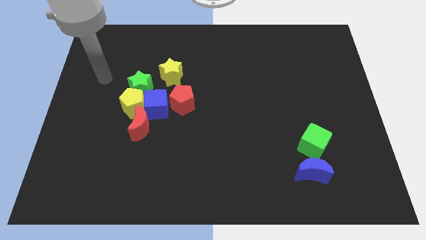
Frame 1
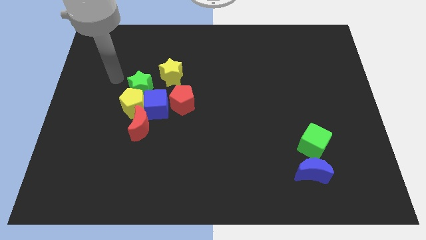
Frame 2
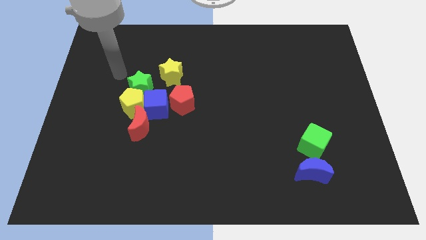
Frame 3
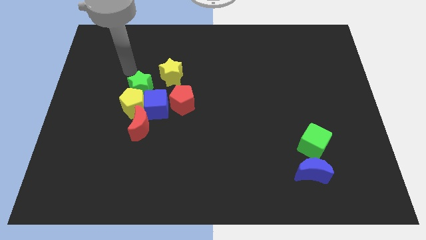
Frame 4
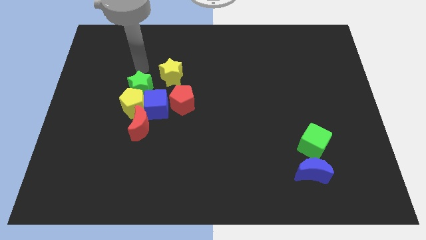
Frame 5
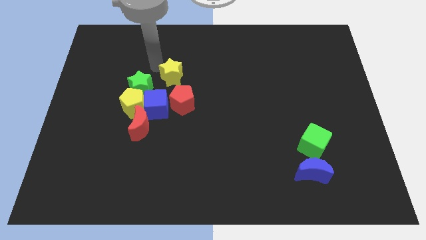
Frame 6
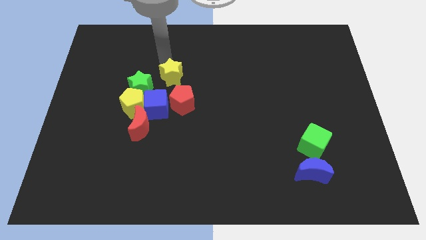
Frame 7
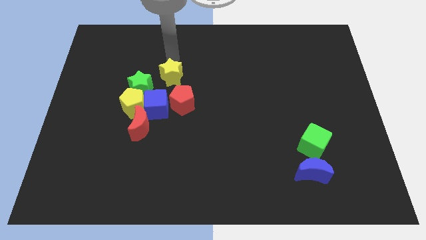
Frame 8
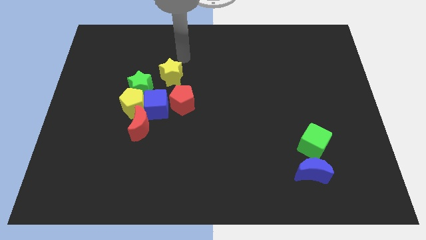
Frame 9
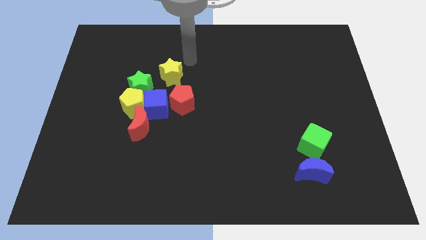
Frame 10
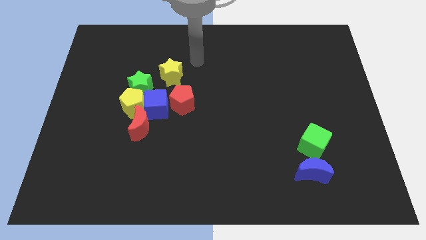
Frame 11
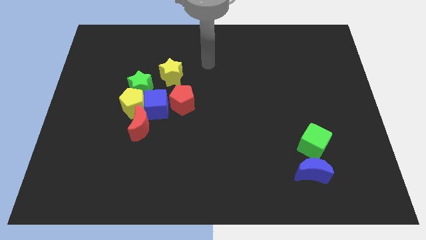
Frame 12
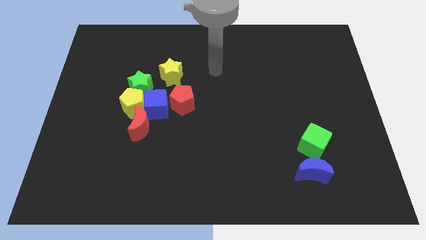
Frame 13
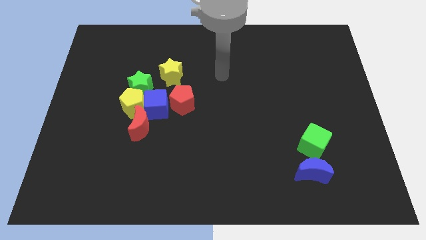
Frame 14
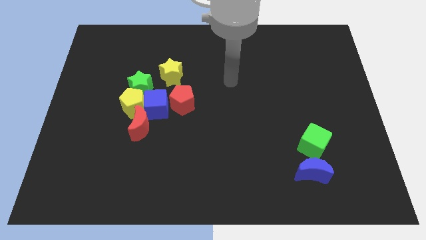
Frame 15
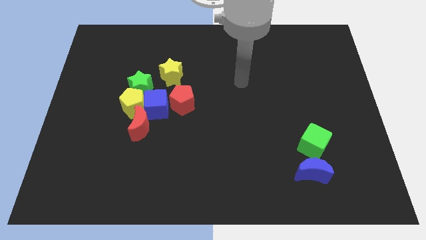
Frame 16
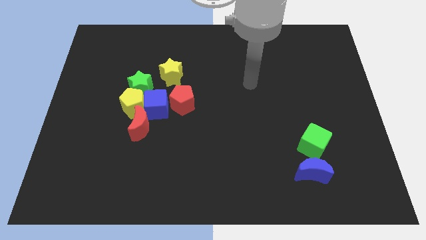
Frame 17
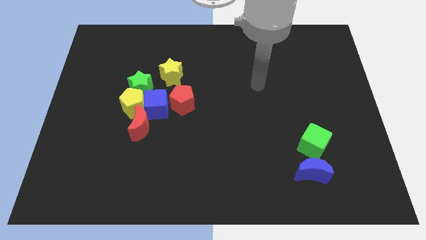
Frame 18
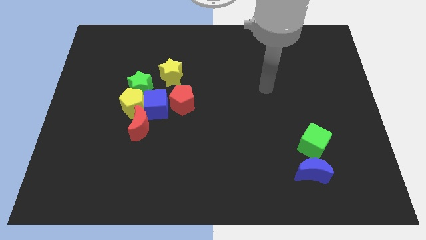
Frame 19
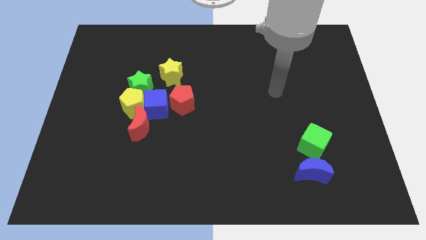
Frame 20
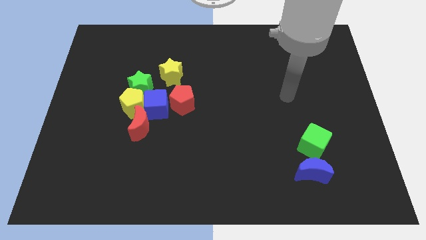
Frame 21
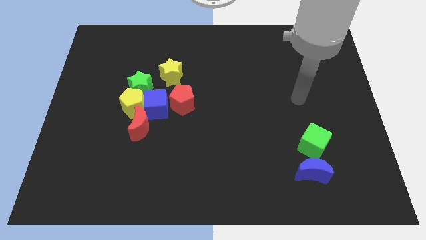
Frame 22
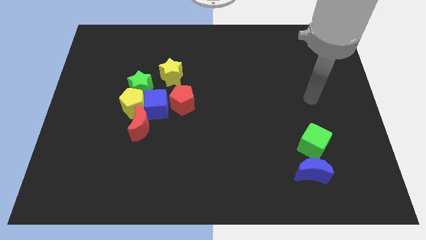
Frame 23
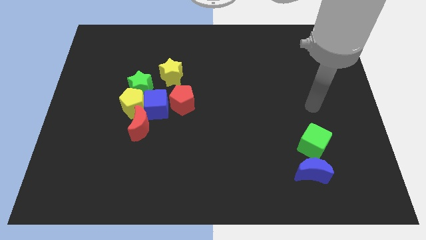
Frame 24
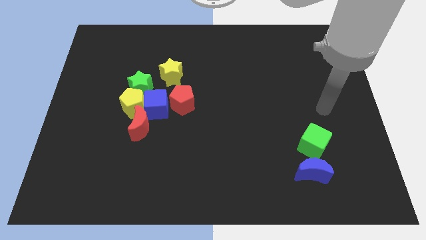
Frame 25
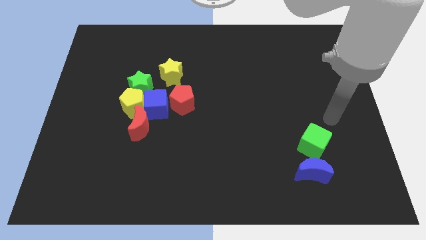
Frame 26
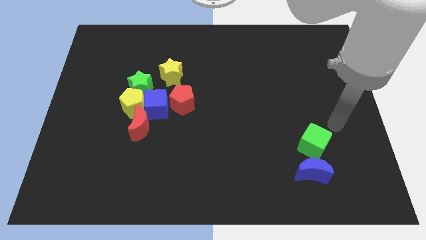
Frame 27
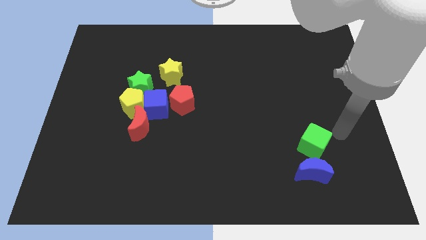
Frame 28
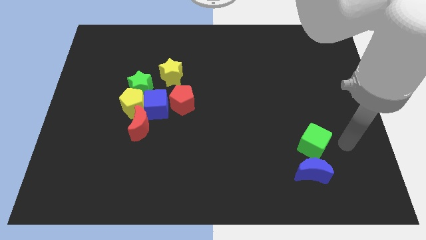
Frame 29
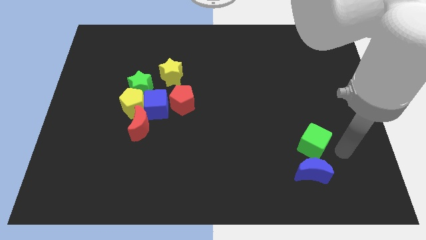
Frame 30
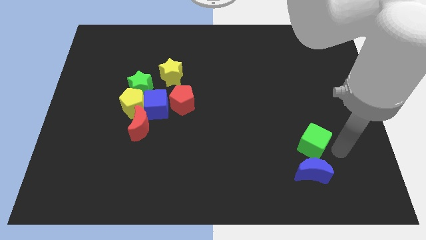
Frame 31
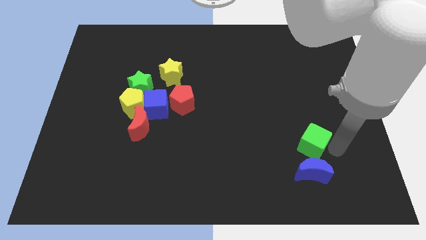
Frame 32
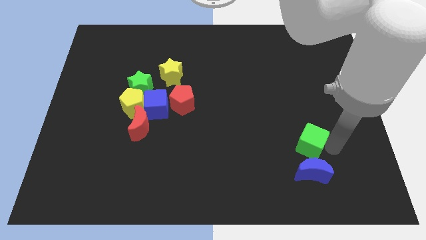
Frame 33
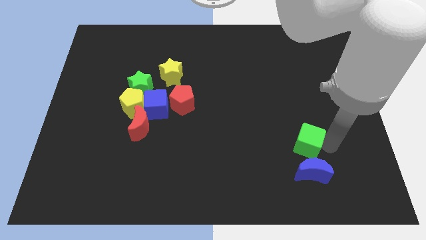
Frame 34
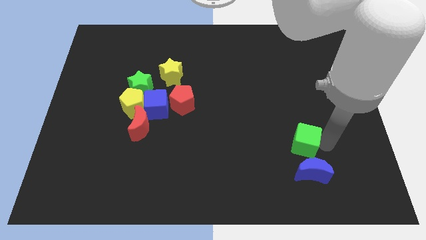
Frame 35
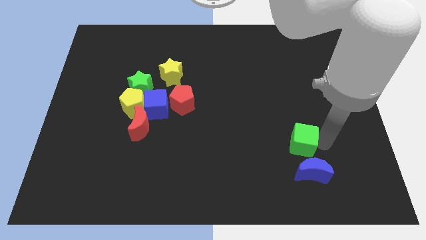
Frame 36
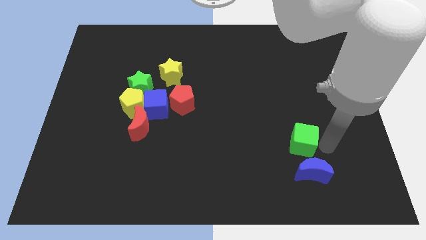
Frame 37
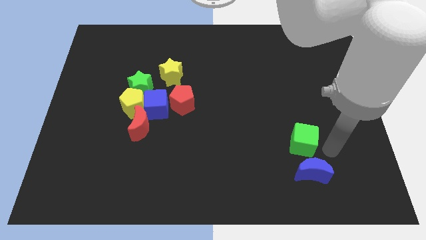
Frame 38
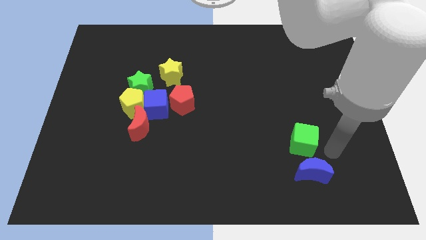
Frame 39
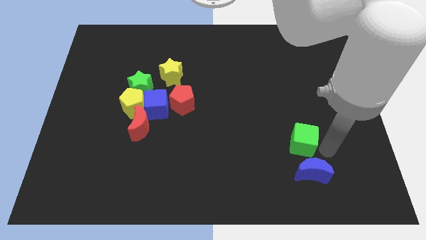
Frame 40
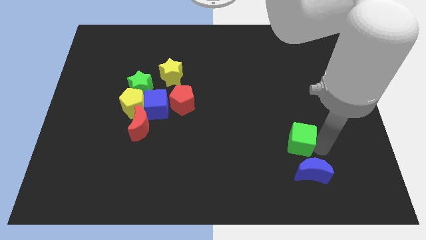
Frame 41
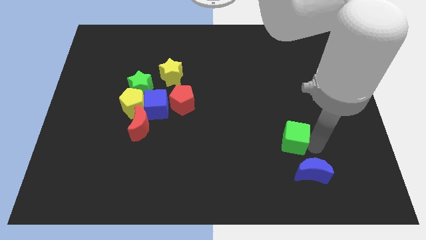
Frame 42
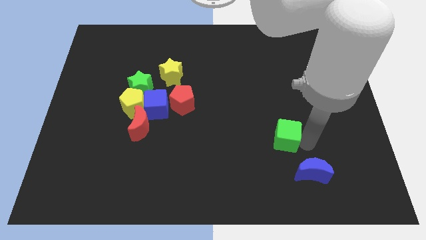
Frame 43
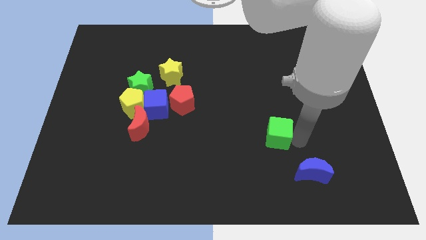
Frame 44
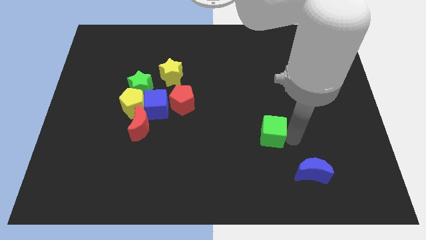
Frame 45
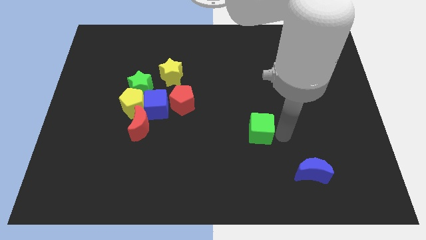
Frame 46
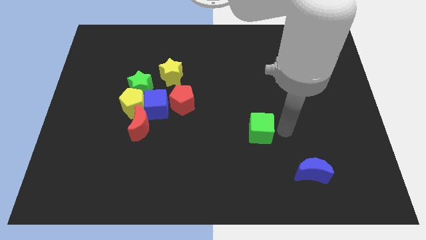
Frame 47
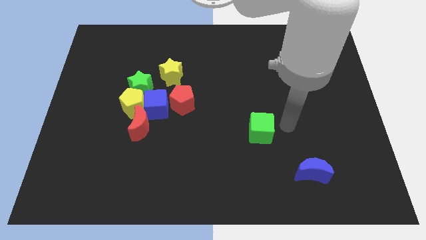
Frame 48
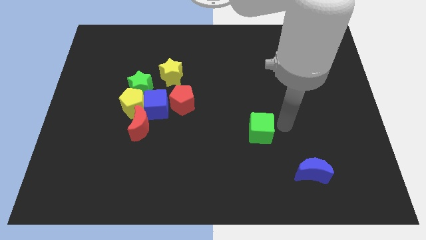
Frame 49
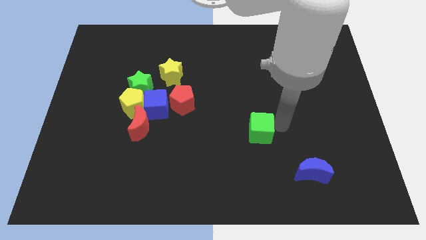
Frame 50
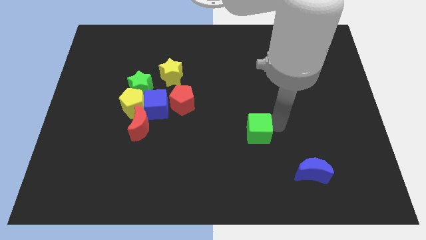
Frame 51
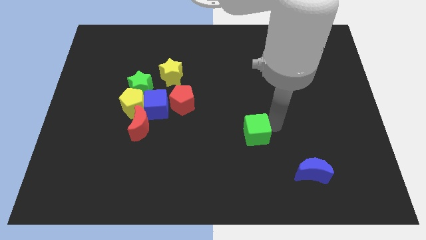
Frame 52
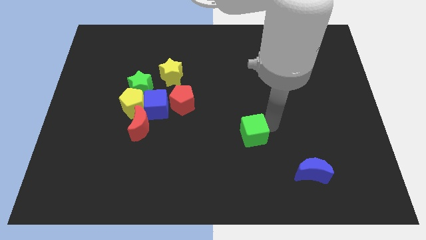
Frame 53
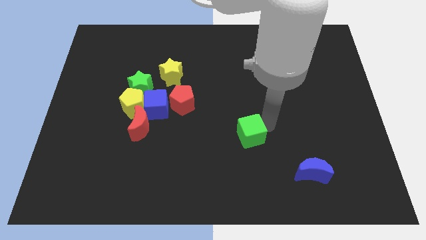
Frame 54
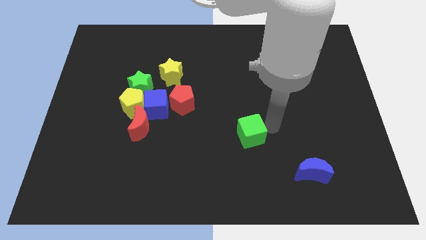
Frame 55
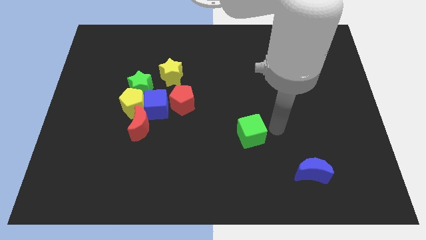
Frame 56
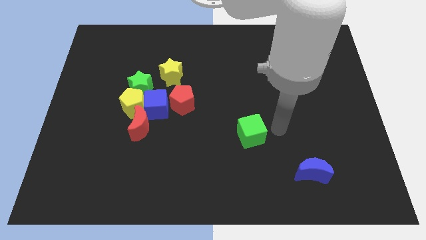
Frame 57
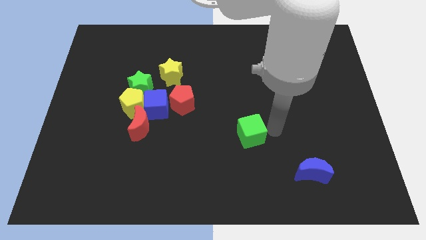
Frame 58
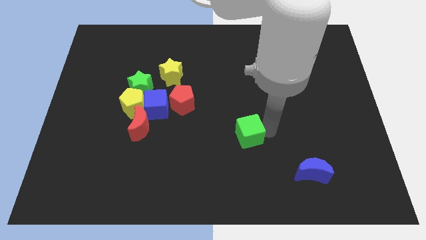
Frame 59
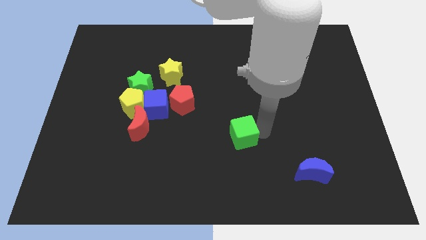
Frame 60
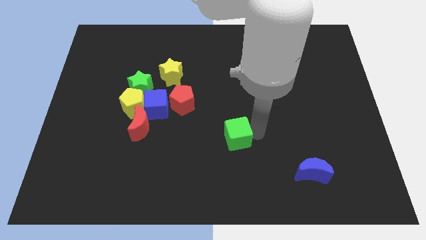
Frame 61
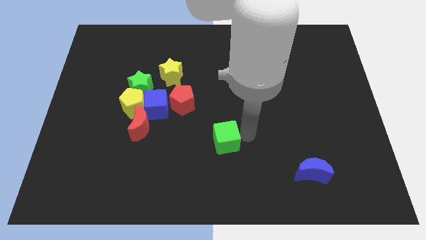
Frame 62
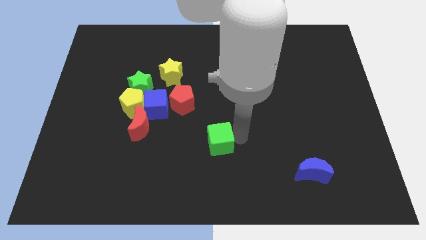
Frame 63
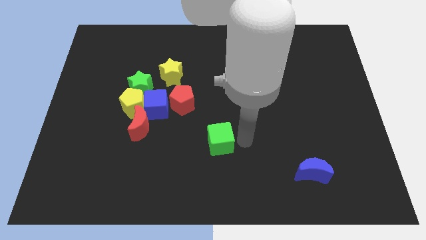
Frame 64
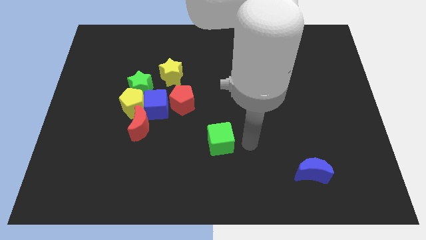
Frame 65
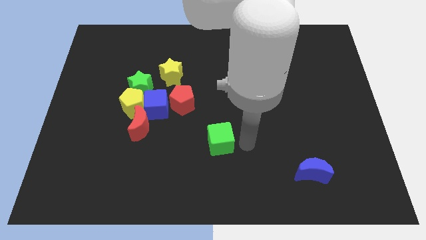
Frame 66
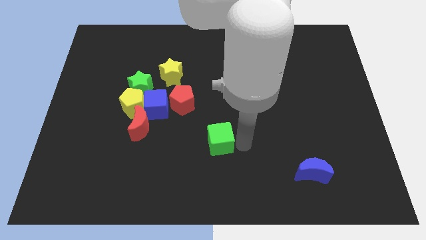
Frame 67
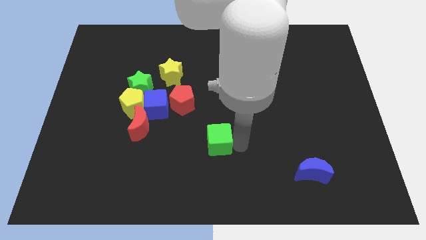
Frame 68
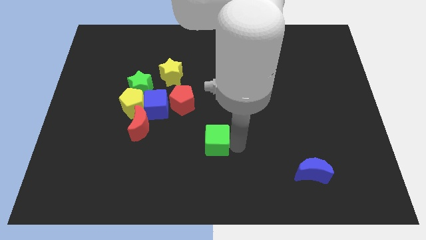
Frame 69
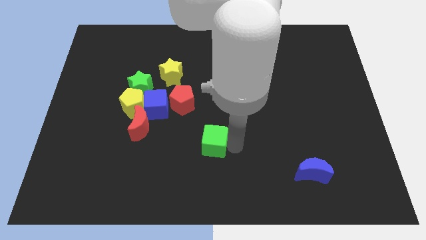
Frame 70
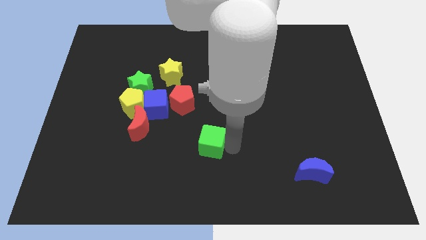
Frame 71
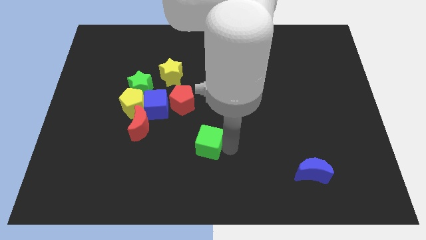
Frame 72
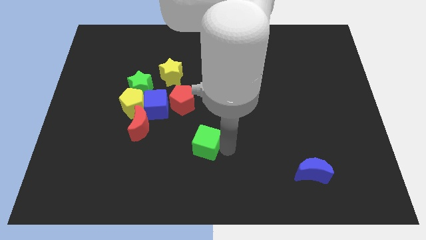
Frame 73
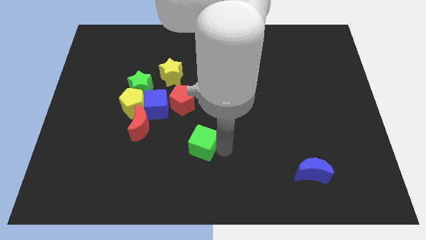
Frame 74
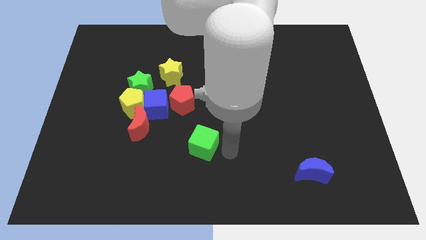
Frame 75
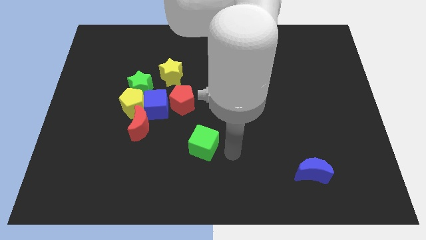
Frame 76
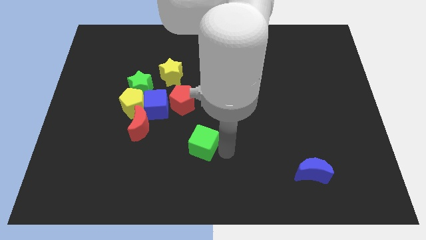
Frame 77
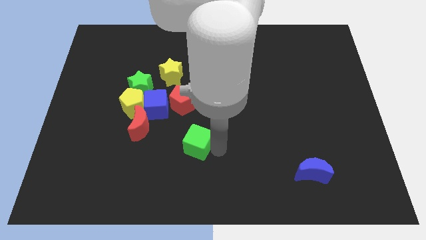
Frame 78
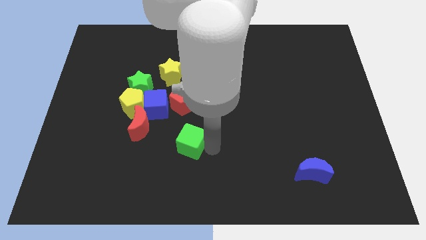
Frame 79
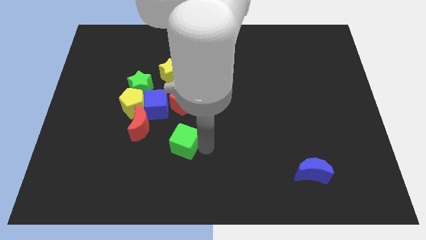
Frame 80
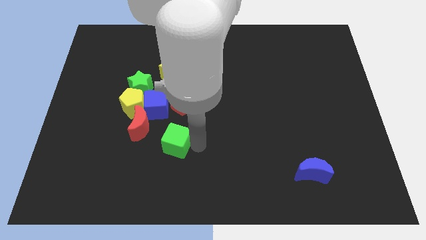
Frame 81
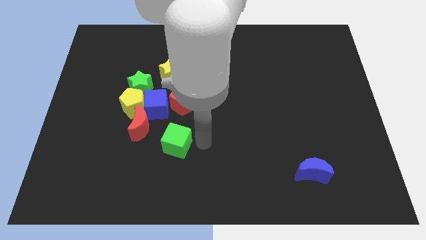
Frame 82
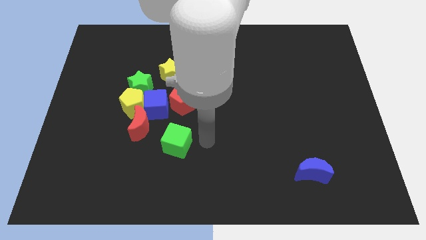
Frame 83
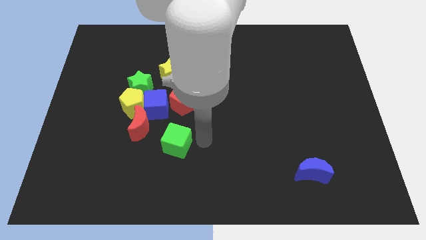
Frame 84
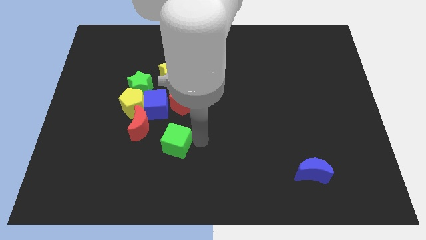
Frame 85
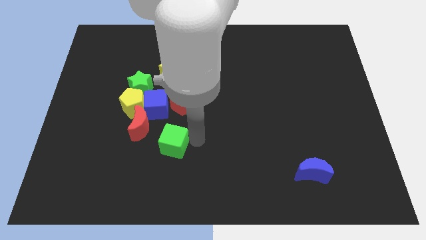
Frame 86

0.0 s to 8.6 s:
move the green cube to the bottom of the blue cube
